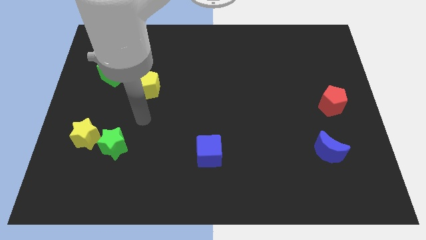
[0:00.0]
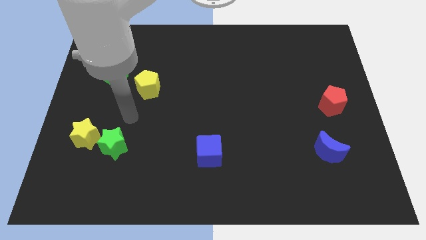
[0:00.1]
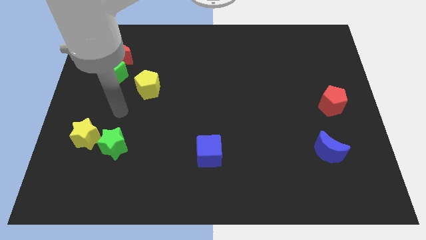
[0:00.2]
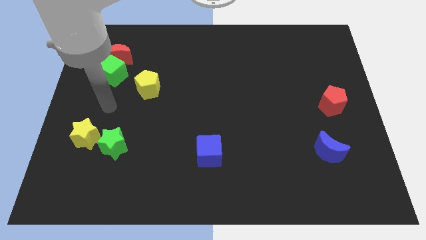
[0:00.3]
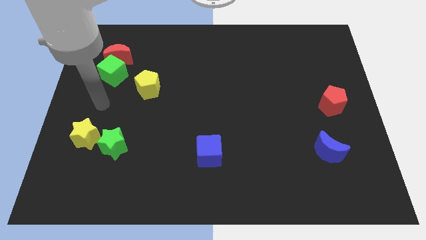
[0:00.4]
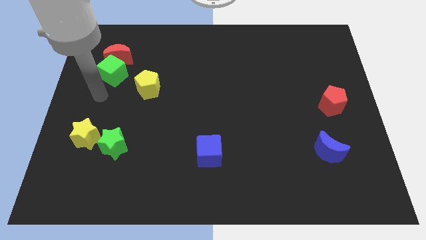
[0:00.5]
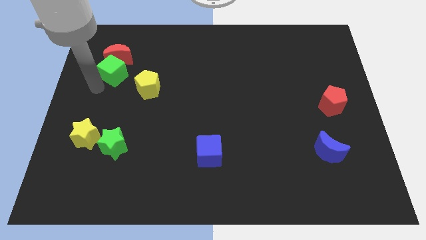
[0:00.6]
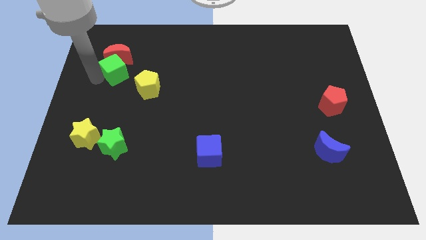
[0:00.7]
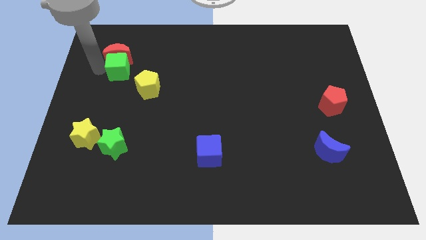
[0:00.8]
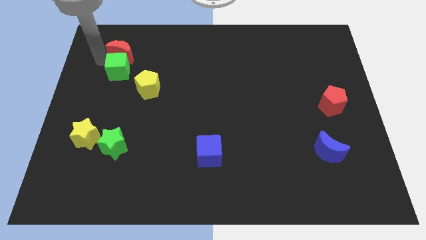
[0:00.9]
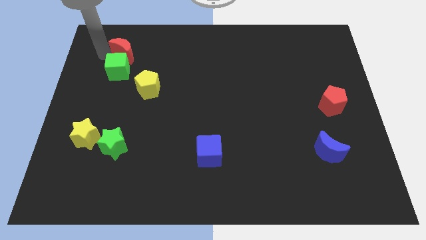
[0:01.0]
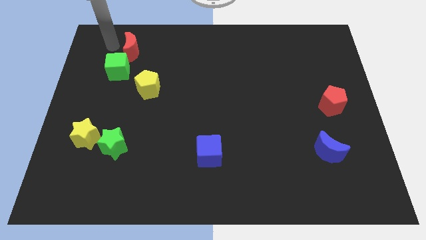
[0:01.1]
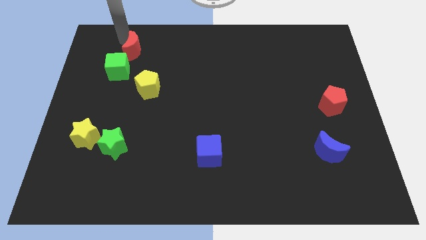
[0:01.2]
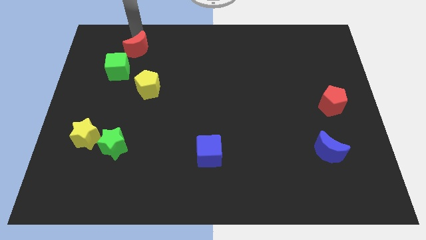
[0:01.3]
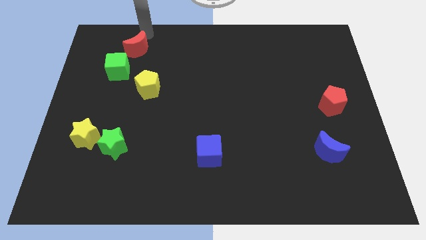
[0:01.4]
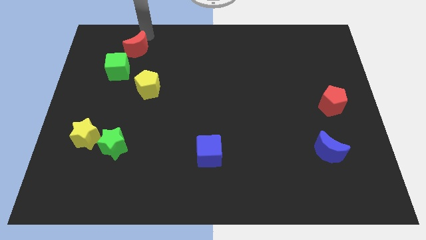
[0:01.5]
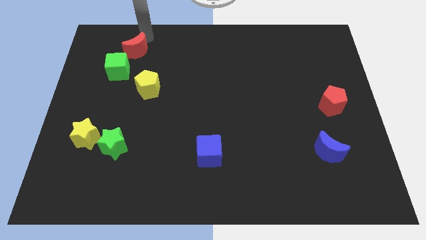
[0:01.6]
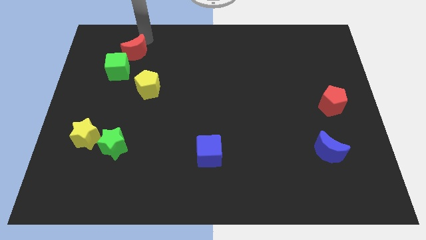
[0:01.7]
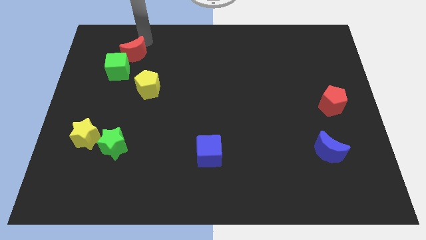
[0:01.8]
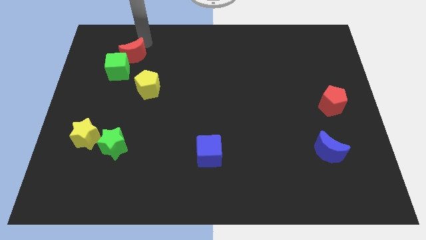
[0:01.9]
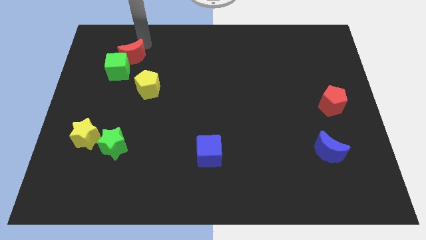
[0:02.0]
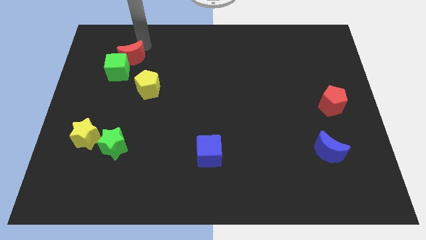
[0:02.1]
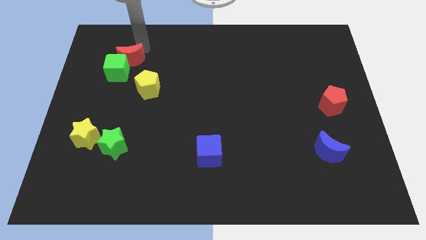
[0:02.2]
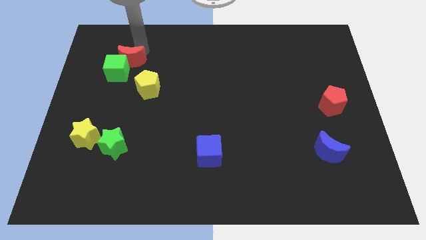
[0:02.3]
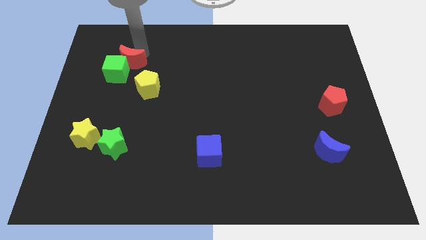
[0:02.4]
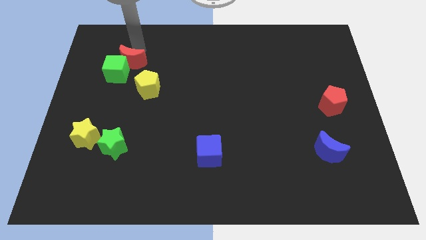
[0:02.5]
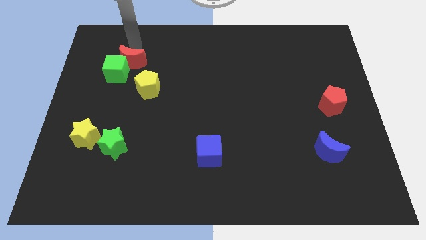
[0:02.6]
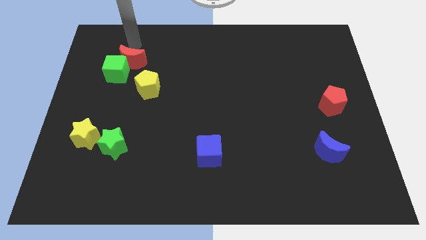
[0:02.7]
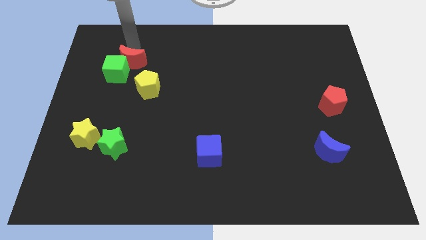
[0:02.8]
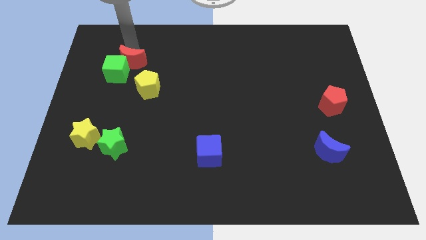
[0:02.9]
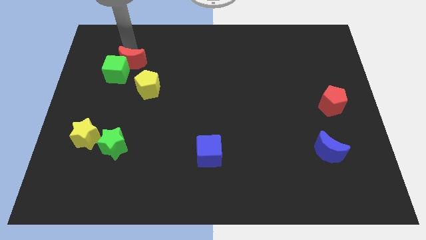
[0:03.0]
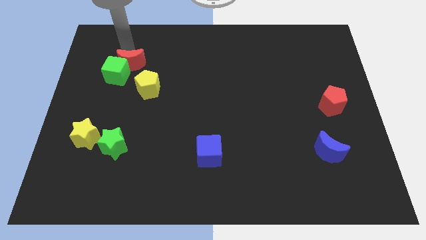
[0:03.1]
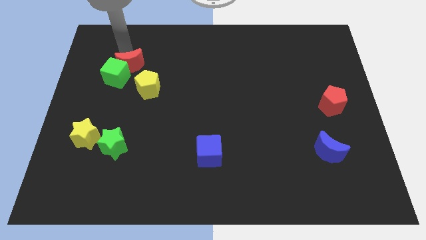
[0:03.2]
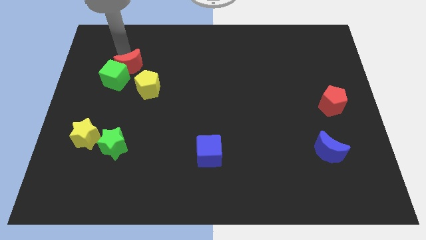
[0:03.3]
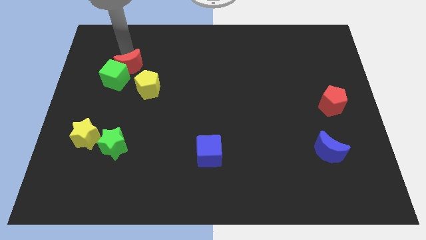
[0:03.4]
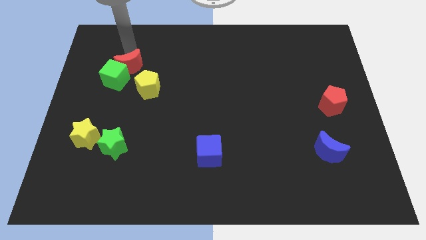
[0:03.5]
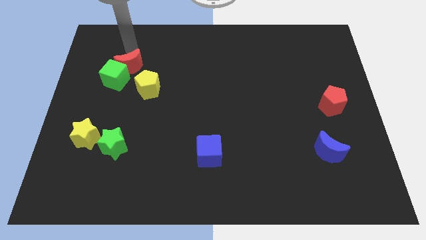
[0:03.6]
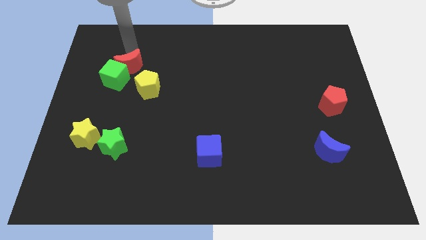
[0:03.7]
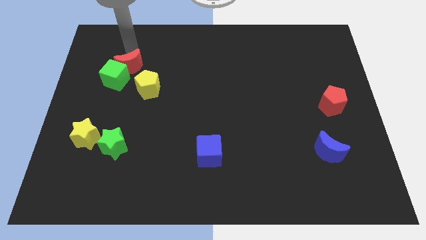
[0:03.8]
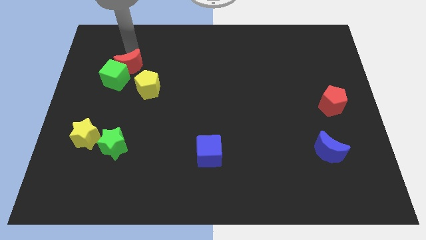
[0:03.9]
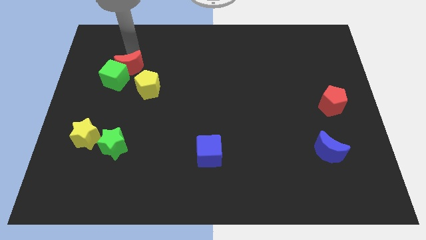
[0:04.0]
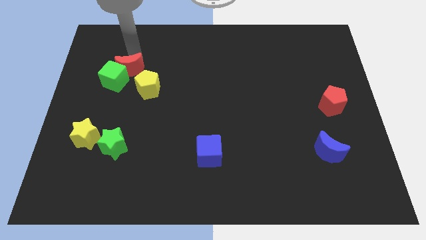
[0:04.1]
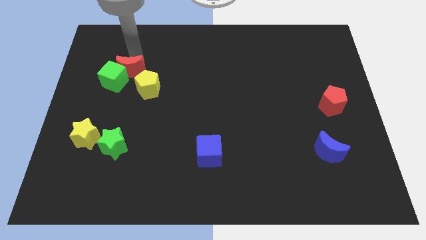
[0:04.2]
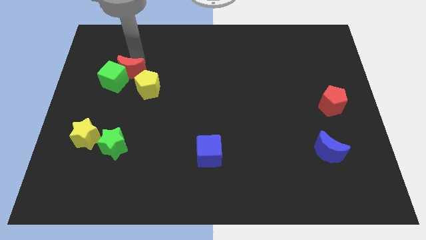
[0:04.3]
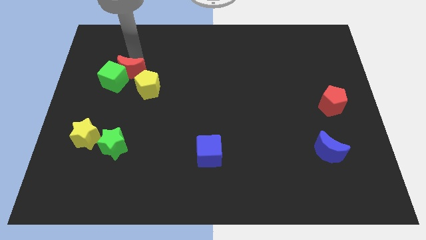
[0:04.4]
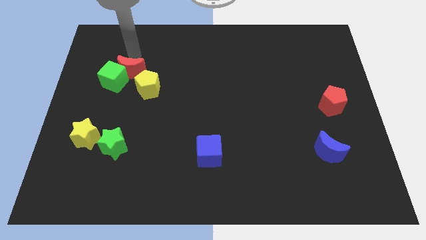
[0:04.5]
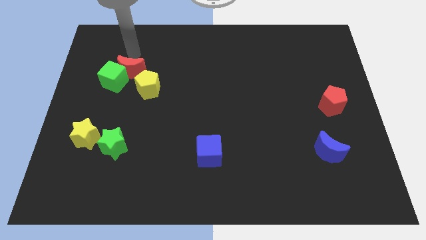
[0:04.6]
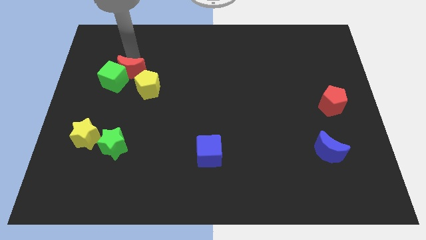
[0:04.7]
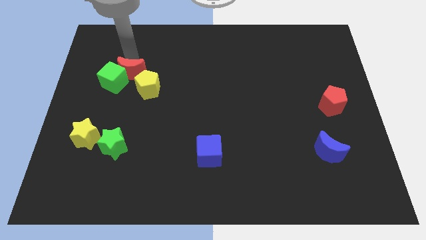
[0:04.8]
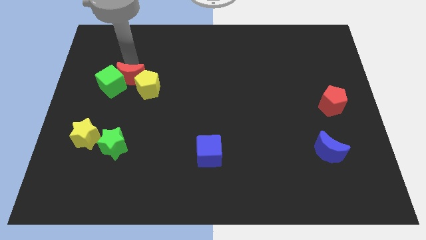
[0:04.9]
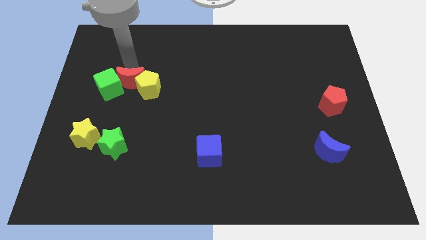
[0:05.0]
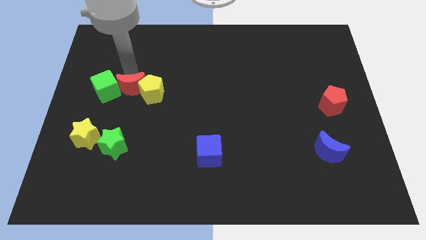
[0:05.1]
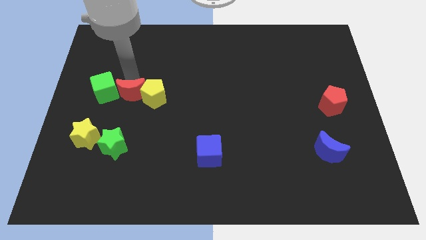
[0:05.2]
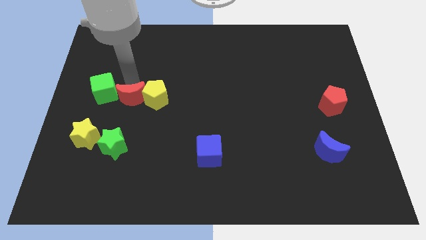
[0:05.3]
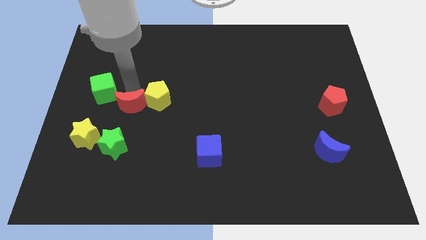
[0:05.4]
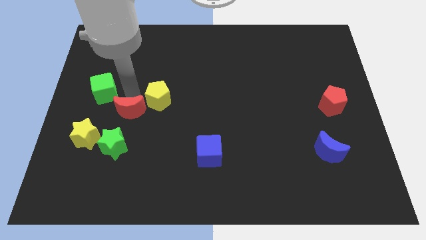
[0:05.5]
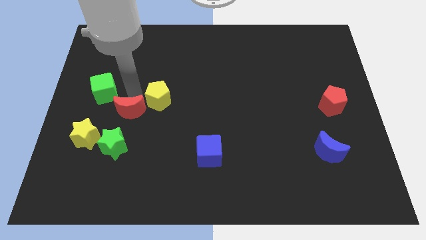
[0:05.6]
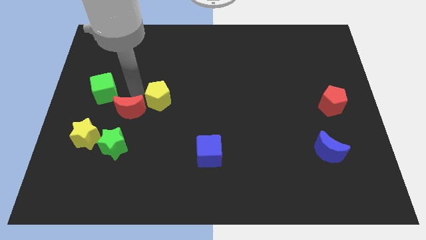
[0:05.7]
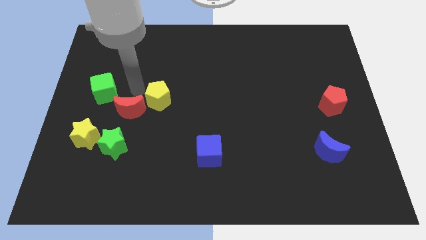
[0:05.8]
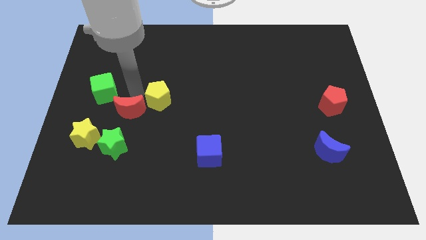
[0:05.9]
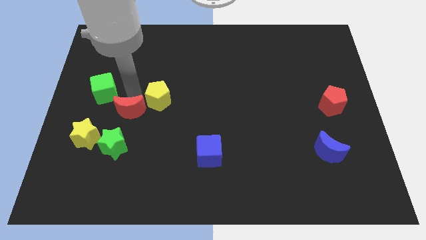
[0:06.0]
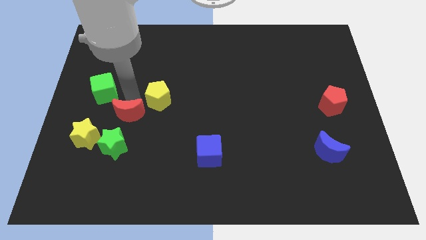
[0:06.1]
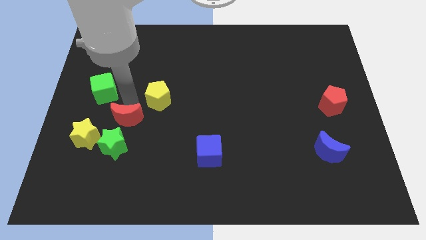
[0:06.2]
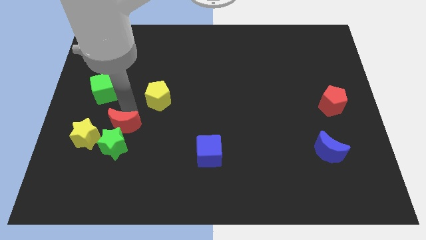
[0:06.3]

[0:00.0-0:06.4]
slide the red moon close to the green star

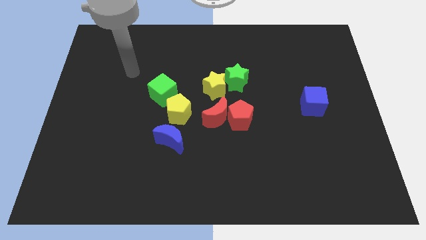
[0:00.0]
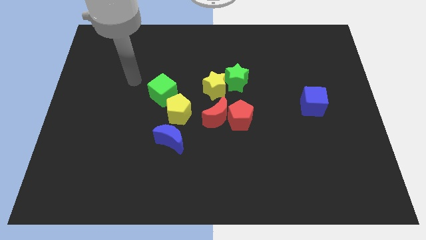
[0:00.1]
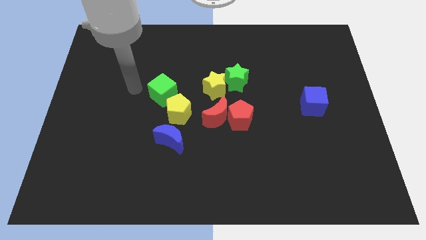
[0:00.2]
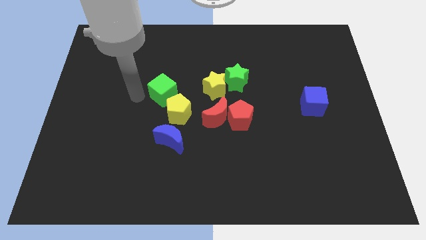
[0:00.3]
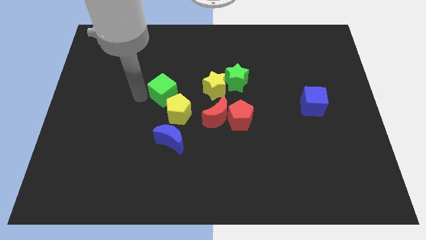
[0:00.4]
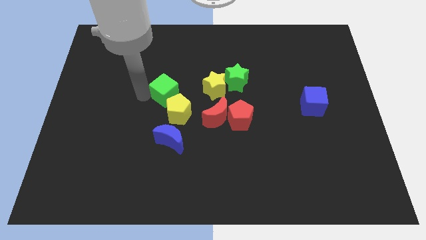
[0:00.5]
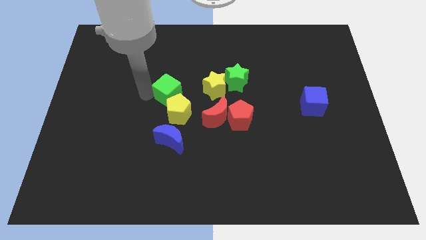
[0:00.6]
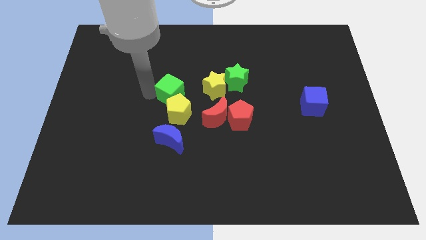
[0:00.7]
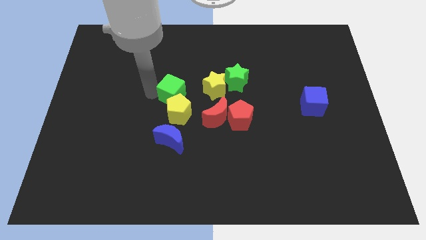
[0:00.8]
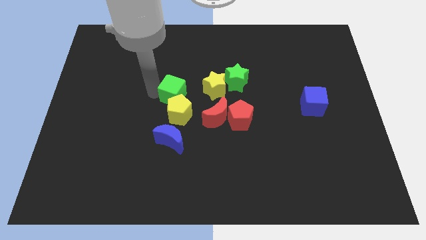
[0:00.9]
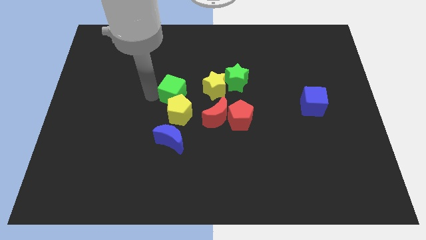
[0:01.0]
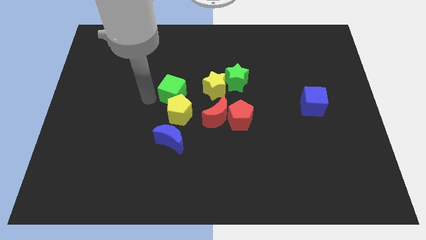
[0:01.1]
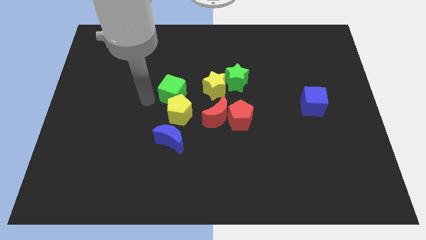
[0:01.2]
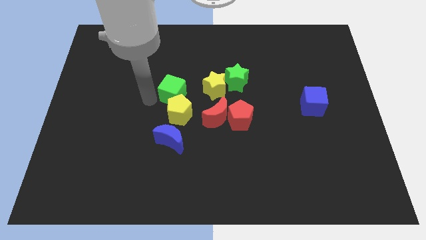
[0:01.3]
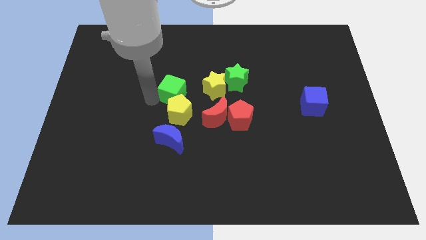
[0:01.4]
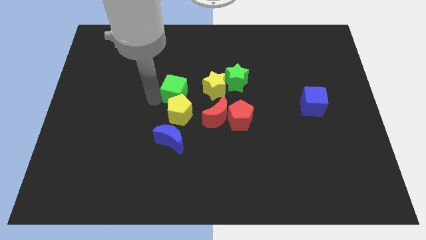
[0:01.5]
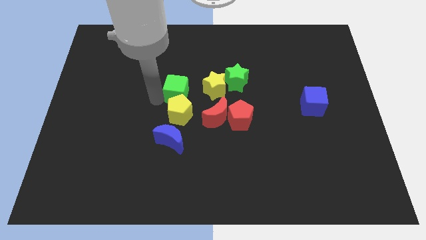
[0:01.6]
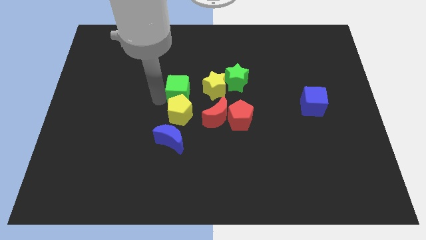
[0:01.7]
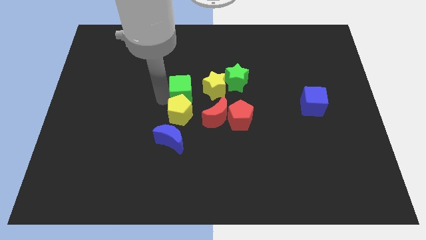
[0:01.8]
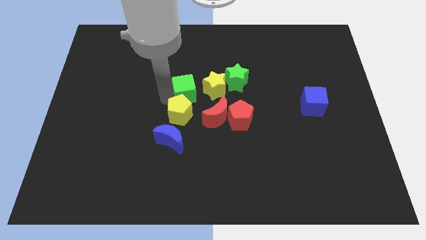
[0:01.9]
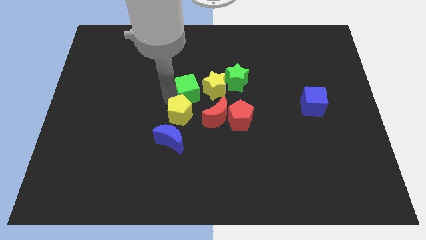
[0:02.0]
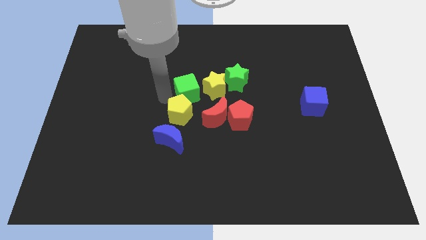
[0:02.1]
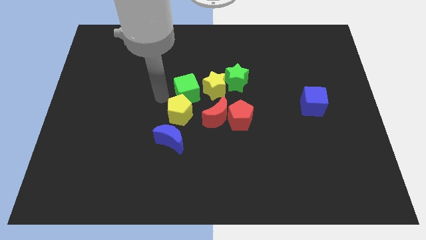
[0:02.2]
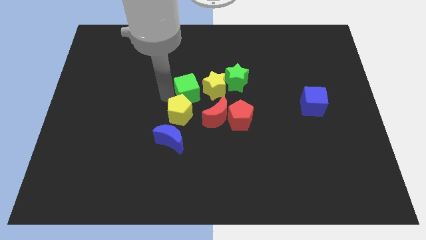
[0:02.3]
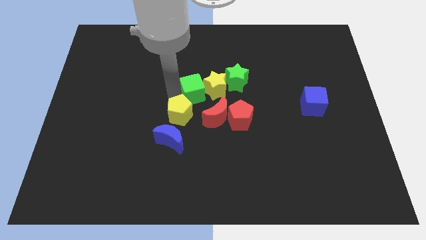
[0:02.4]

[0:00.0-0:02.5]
move the green cube close to the yellow star
